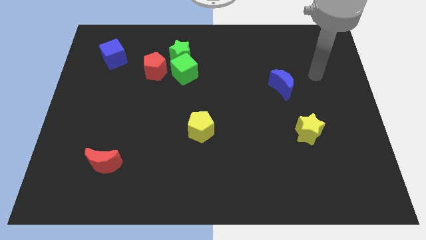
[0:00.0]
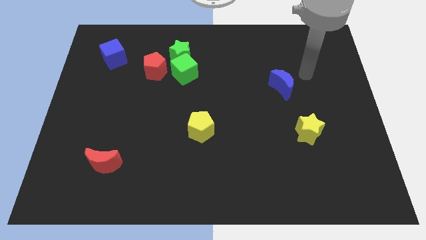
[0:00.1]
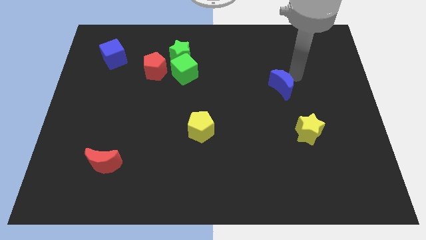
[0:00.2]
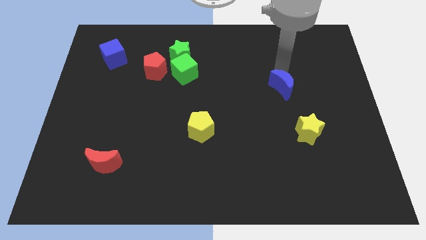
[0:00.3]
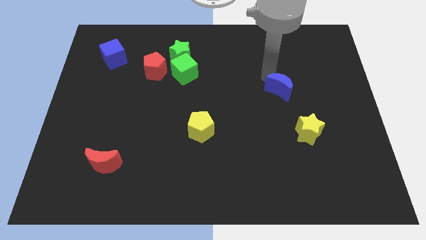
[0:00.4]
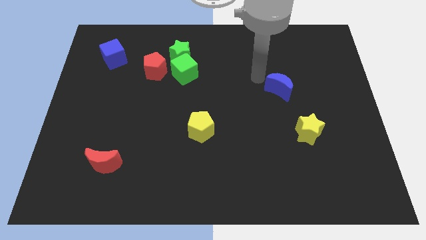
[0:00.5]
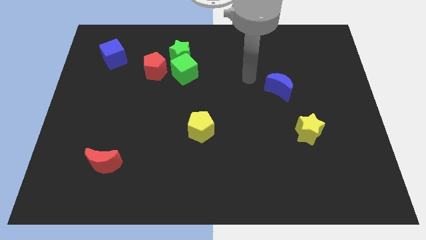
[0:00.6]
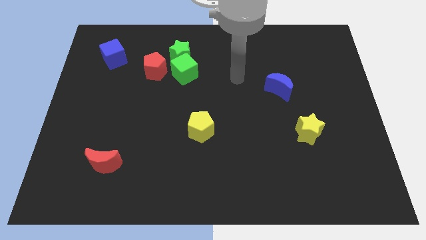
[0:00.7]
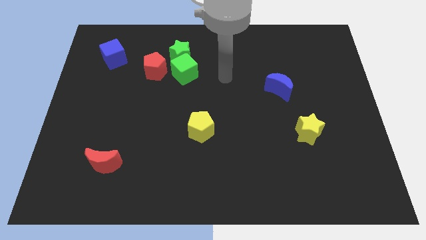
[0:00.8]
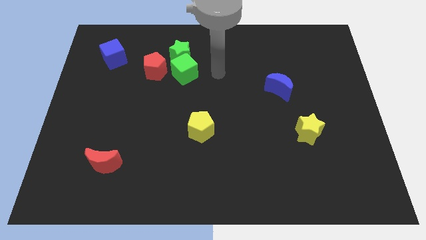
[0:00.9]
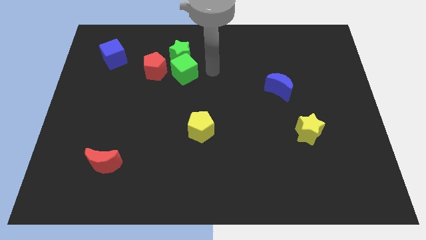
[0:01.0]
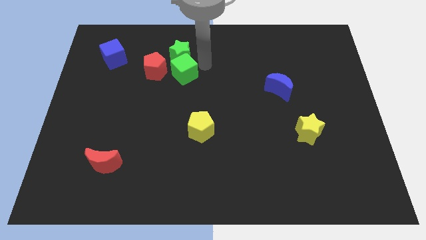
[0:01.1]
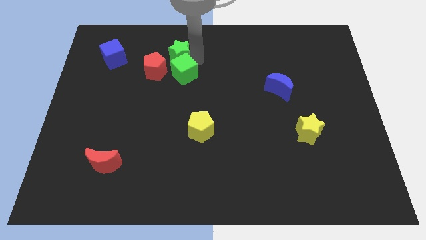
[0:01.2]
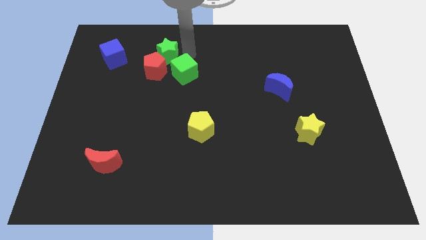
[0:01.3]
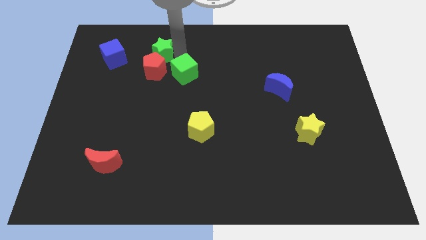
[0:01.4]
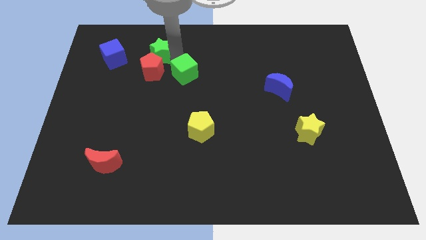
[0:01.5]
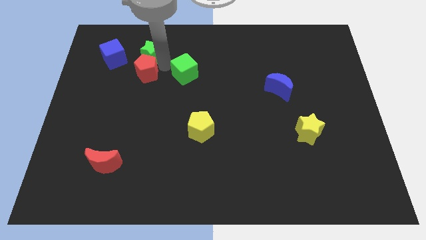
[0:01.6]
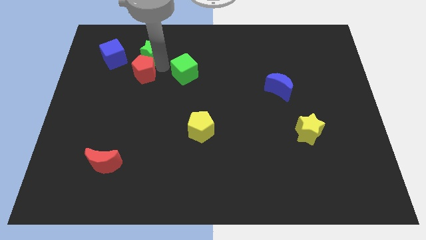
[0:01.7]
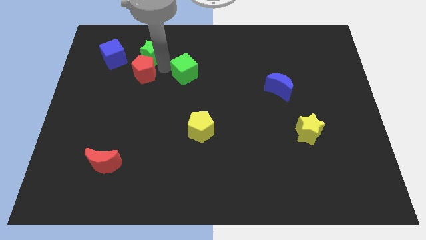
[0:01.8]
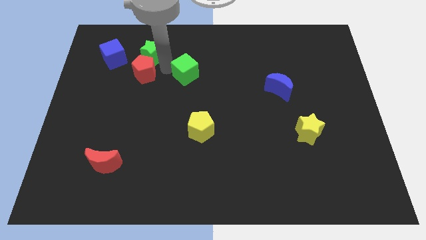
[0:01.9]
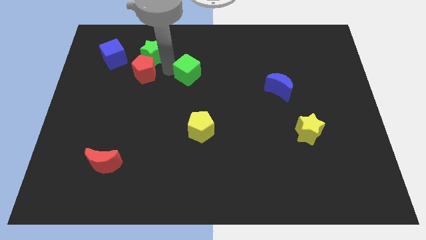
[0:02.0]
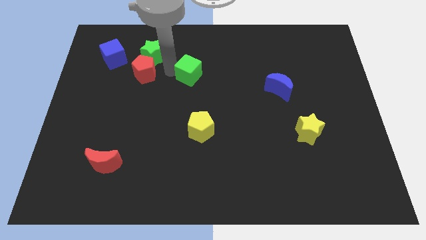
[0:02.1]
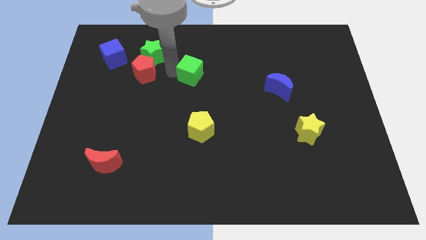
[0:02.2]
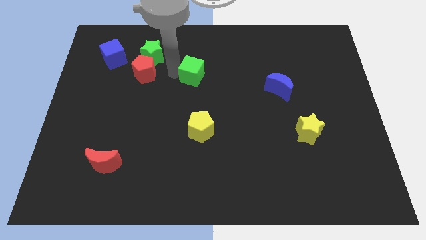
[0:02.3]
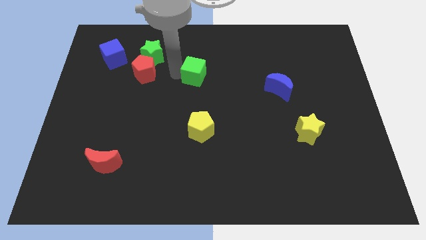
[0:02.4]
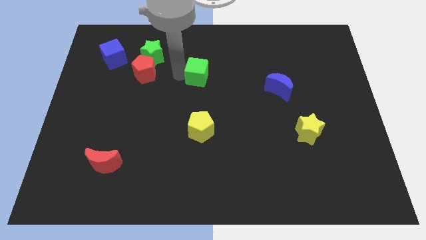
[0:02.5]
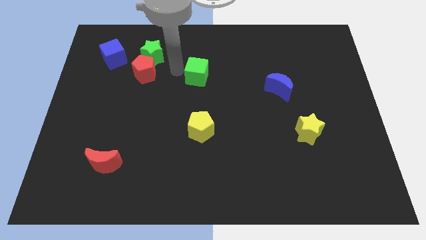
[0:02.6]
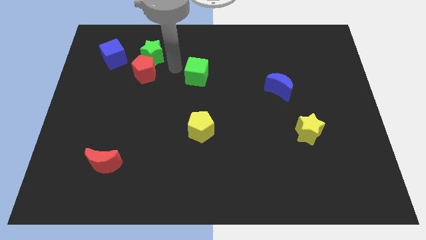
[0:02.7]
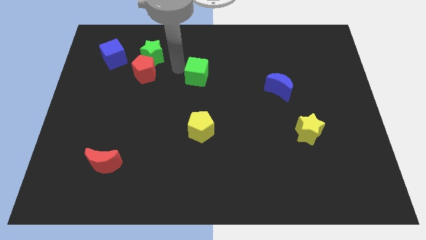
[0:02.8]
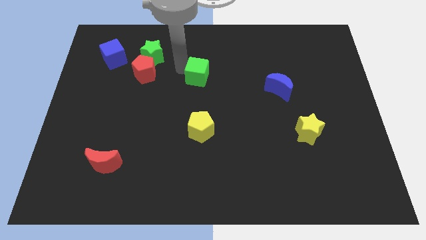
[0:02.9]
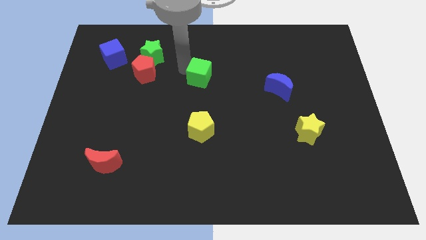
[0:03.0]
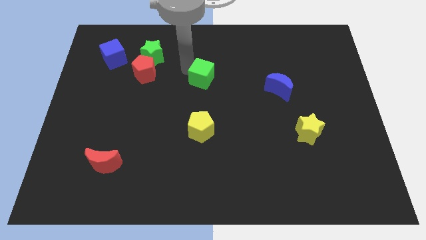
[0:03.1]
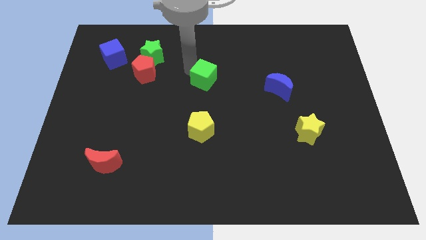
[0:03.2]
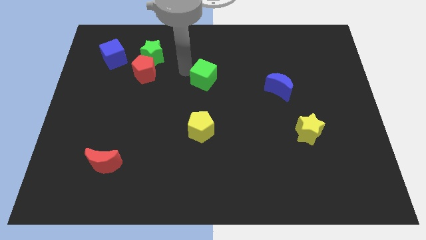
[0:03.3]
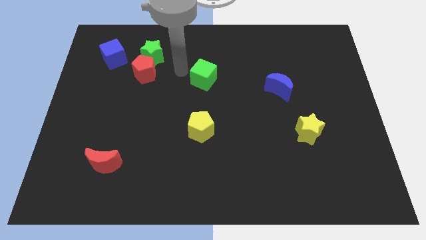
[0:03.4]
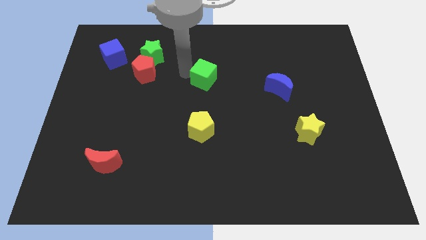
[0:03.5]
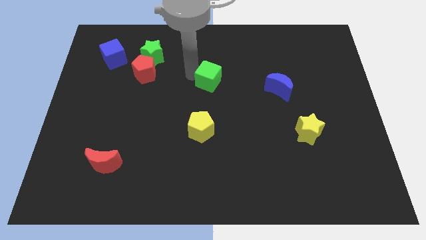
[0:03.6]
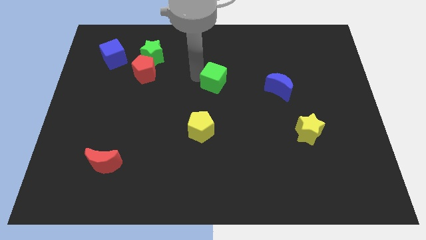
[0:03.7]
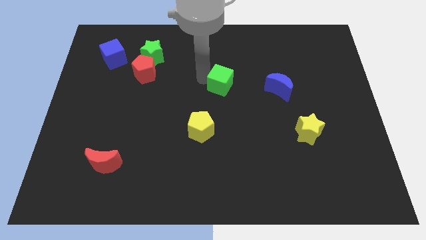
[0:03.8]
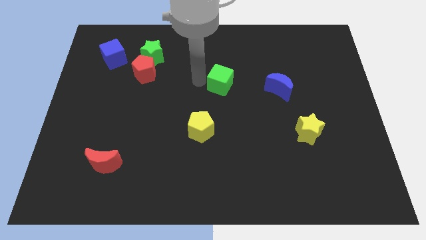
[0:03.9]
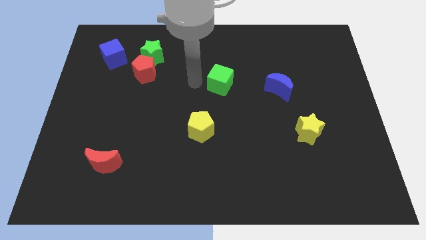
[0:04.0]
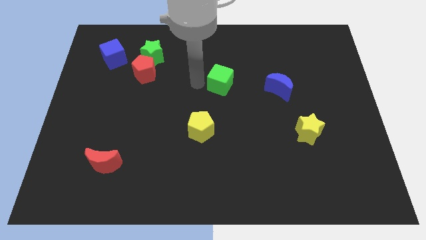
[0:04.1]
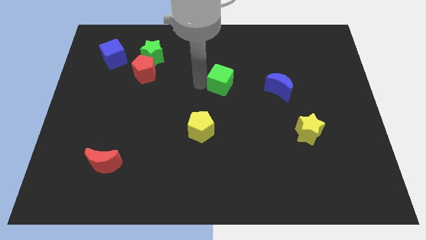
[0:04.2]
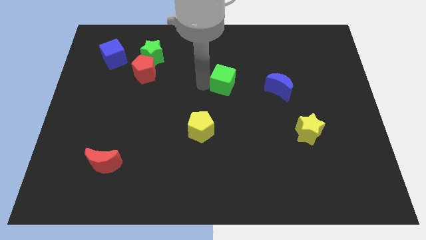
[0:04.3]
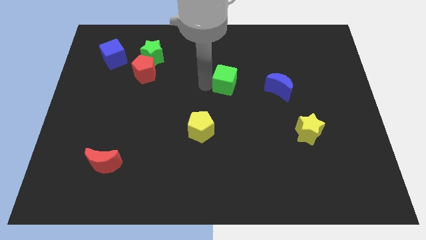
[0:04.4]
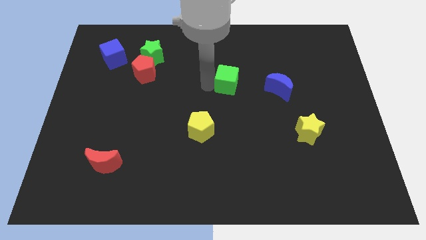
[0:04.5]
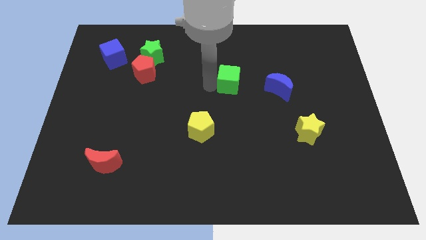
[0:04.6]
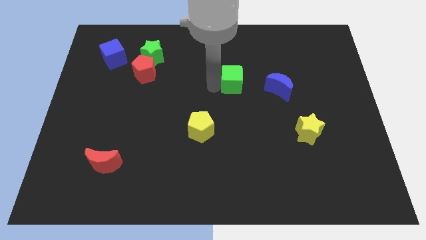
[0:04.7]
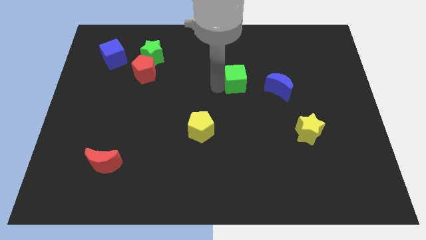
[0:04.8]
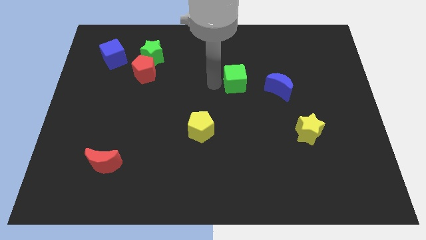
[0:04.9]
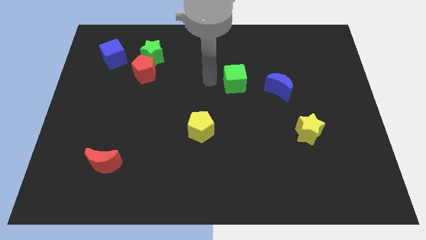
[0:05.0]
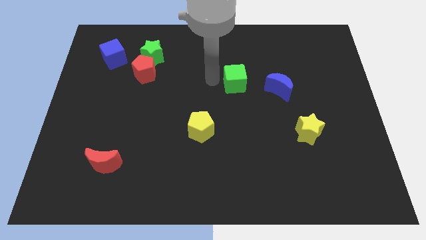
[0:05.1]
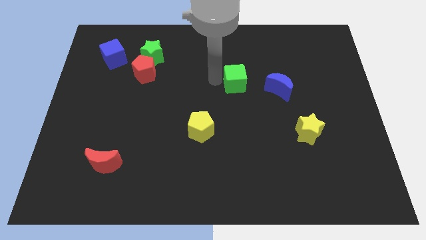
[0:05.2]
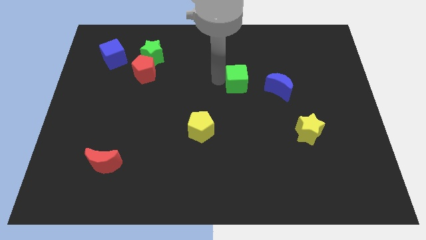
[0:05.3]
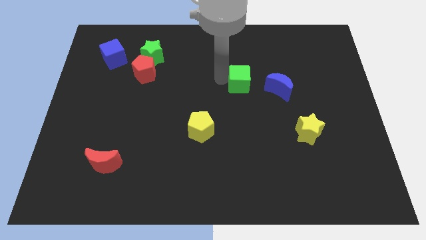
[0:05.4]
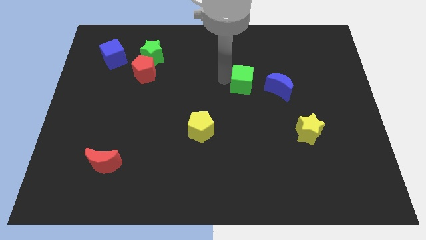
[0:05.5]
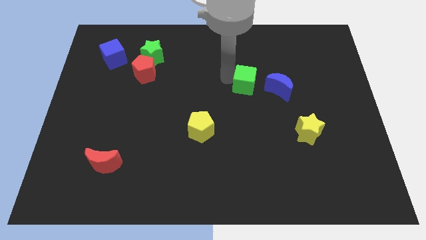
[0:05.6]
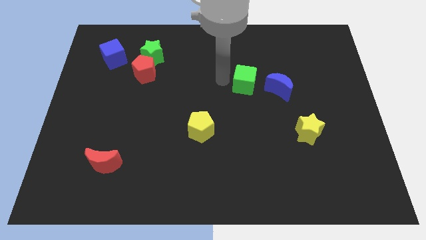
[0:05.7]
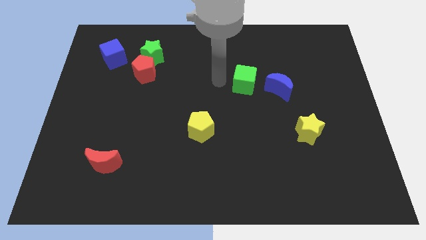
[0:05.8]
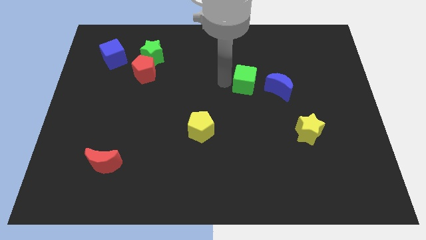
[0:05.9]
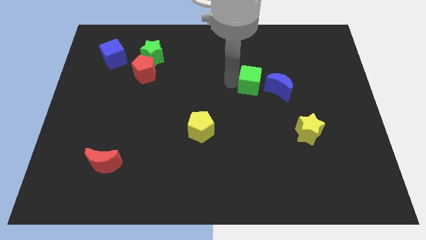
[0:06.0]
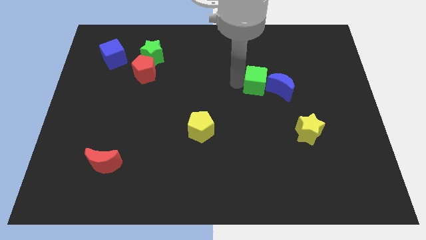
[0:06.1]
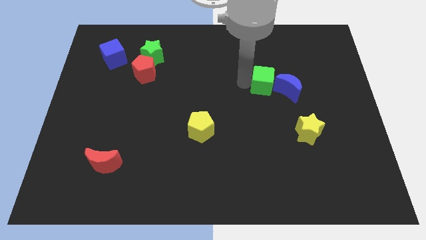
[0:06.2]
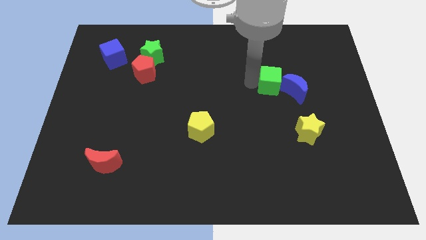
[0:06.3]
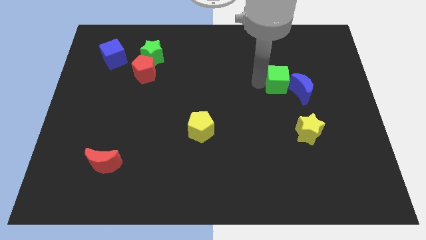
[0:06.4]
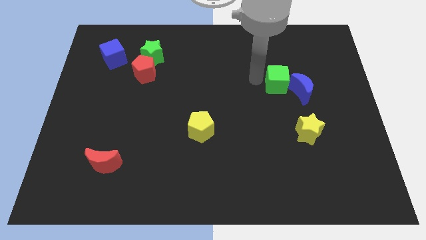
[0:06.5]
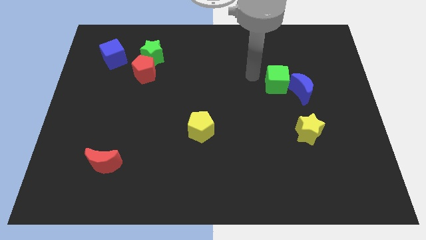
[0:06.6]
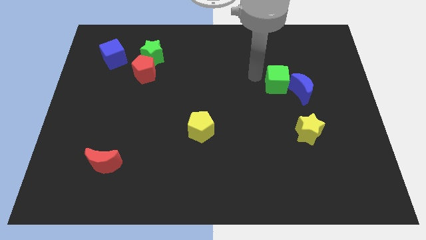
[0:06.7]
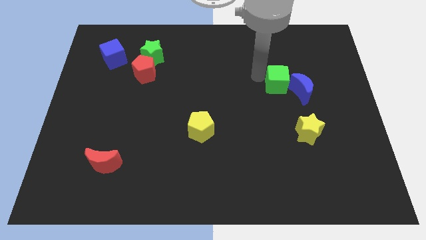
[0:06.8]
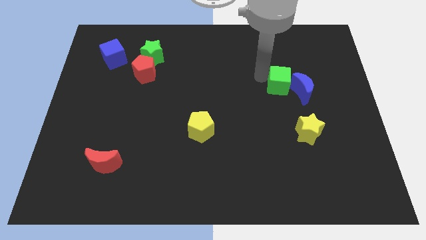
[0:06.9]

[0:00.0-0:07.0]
slide the green cube next to the blue moon
